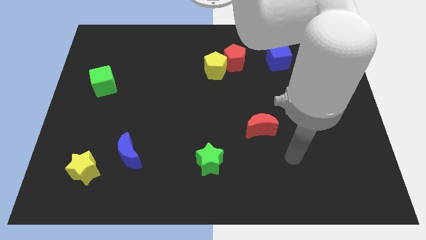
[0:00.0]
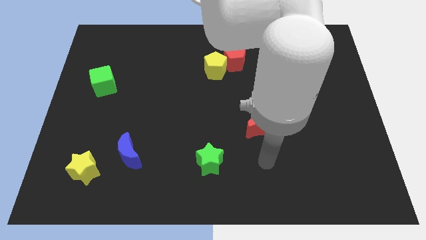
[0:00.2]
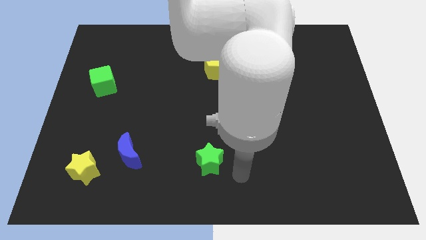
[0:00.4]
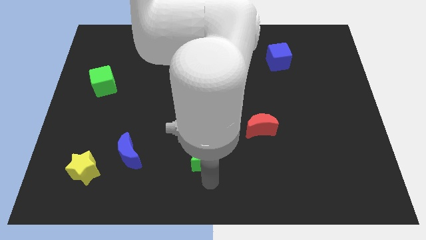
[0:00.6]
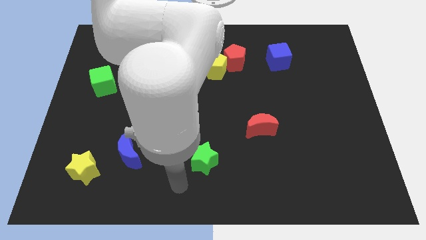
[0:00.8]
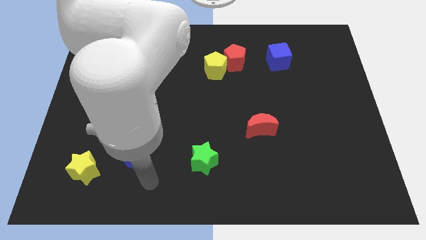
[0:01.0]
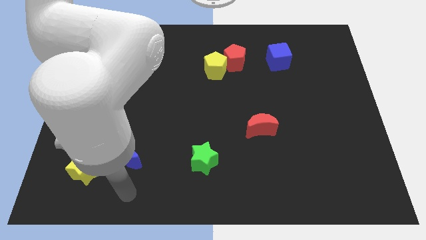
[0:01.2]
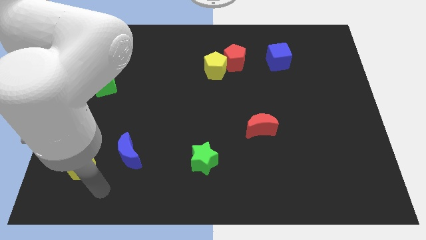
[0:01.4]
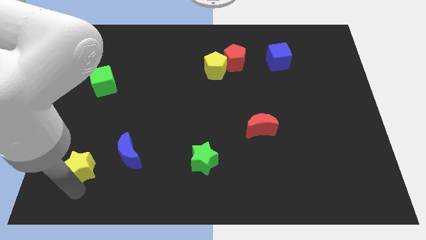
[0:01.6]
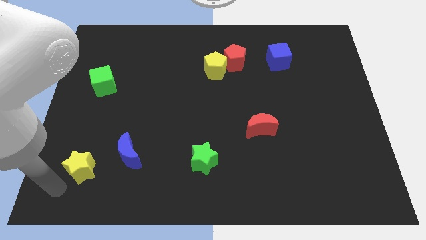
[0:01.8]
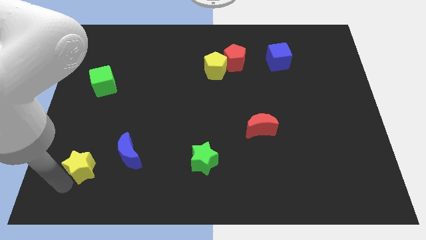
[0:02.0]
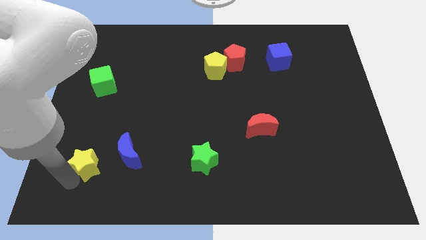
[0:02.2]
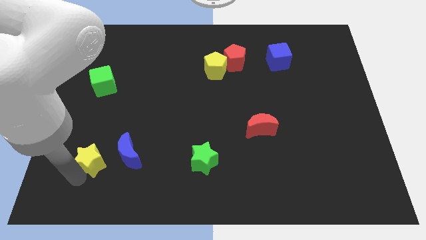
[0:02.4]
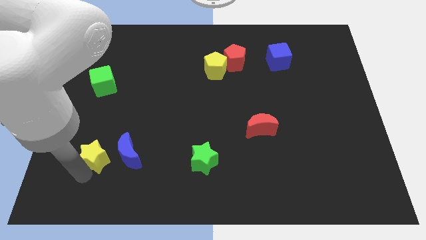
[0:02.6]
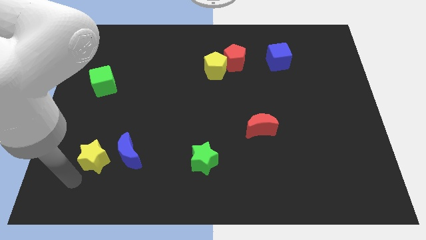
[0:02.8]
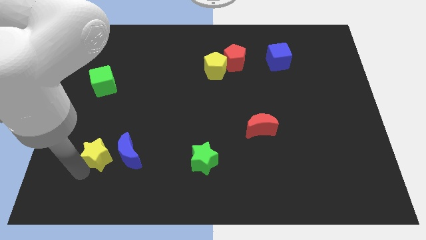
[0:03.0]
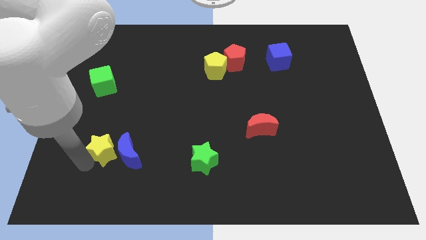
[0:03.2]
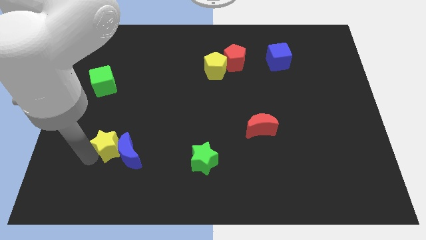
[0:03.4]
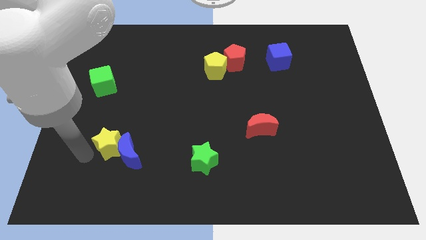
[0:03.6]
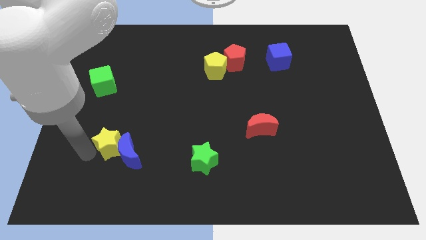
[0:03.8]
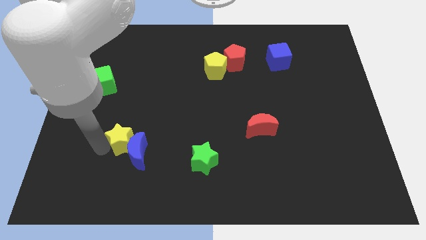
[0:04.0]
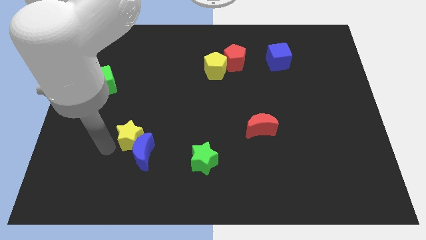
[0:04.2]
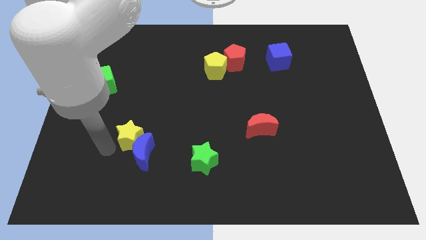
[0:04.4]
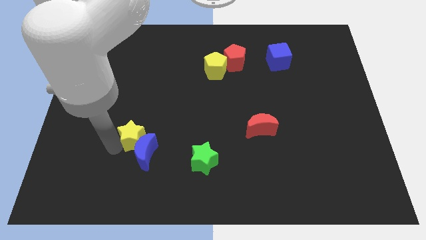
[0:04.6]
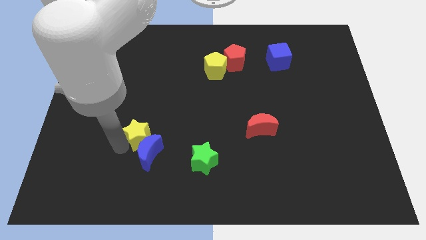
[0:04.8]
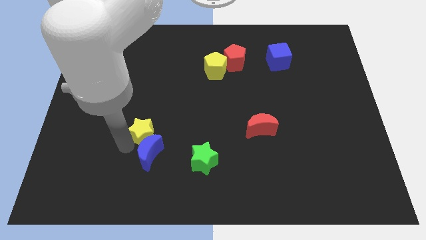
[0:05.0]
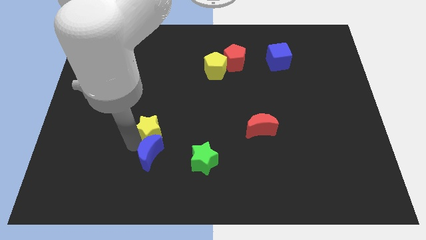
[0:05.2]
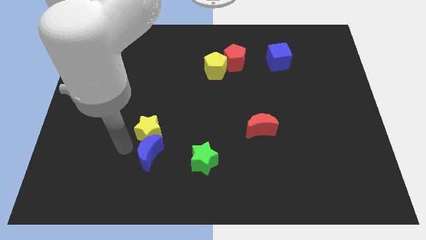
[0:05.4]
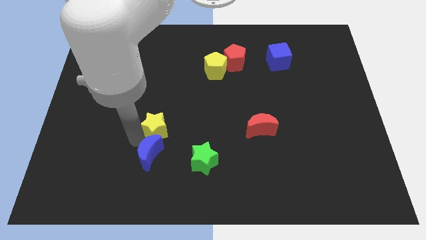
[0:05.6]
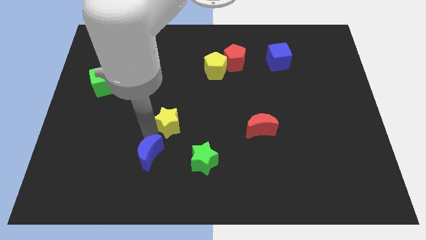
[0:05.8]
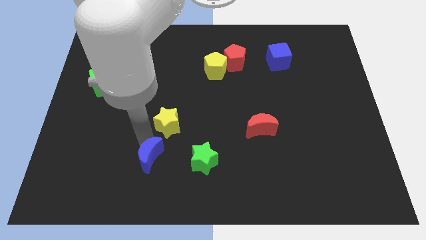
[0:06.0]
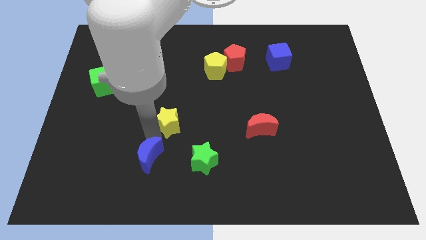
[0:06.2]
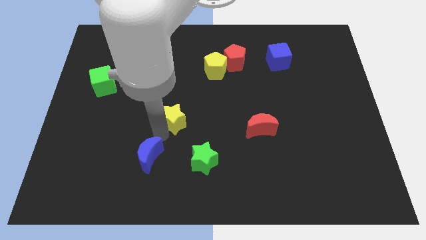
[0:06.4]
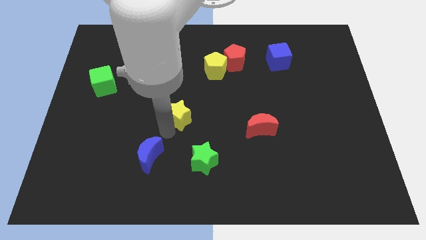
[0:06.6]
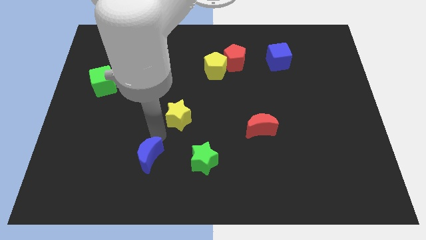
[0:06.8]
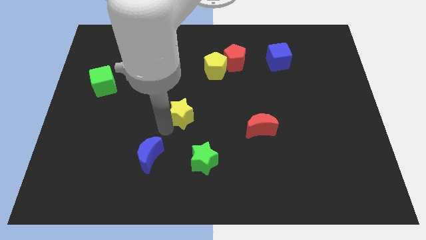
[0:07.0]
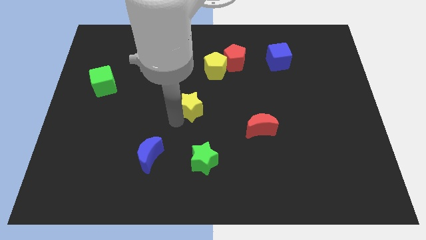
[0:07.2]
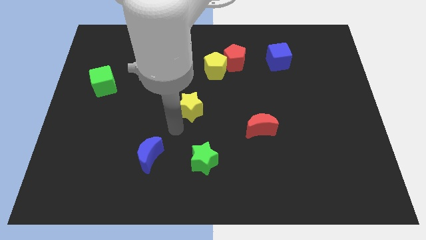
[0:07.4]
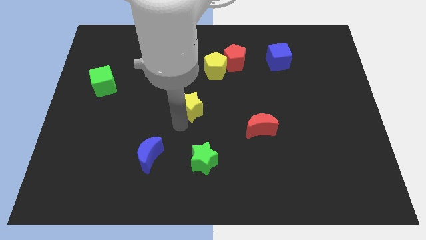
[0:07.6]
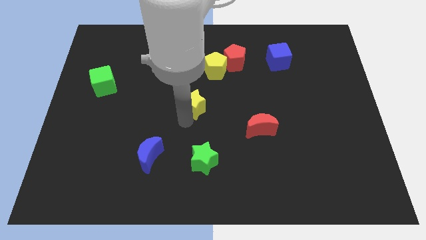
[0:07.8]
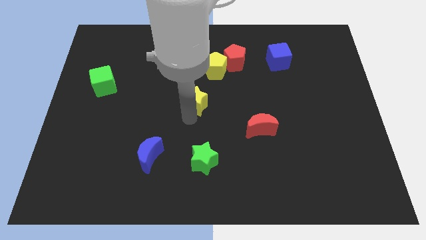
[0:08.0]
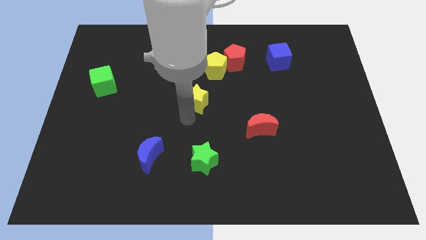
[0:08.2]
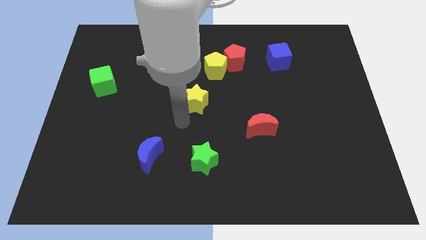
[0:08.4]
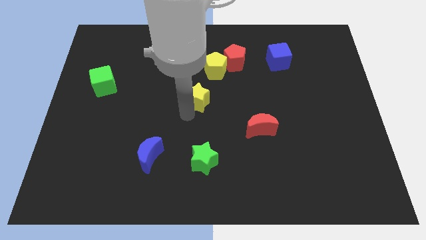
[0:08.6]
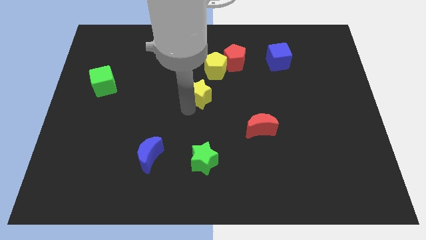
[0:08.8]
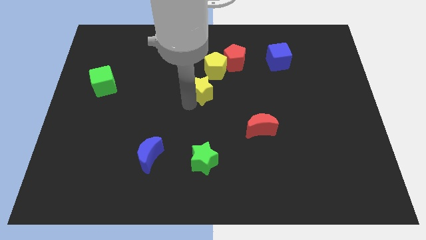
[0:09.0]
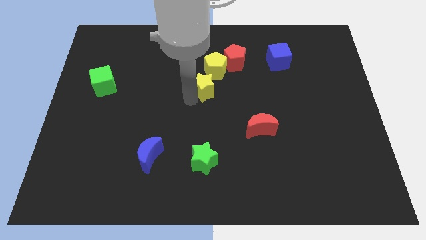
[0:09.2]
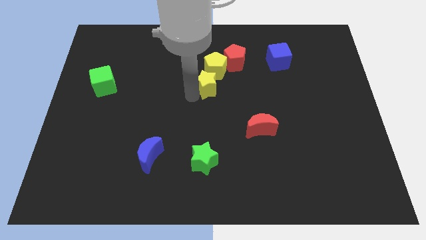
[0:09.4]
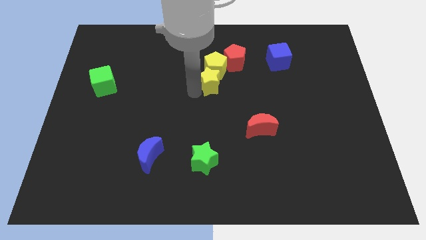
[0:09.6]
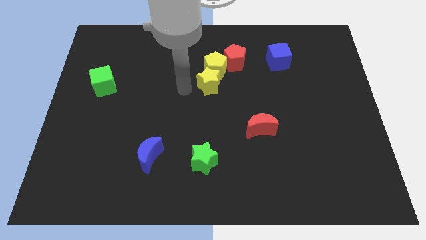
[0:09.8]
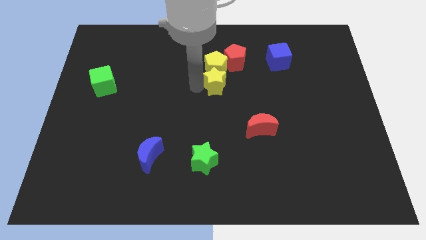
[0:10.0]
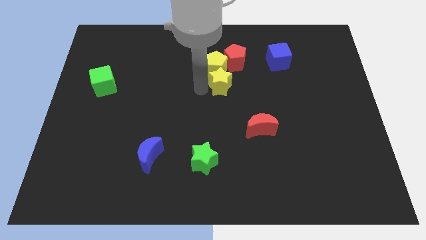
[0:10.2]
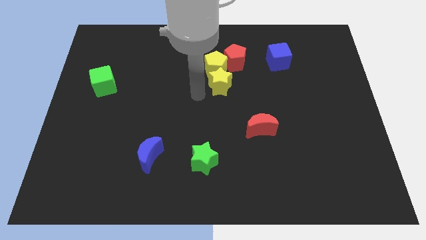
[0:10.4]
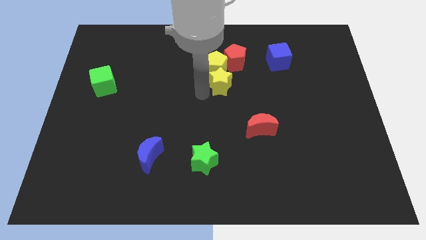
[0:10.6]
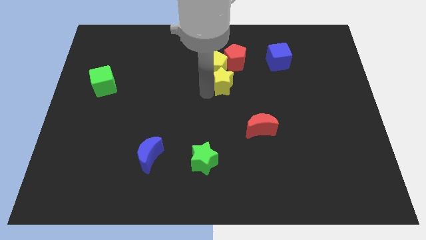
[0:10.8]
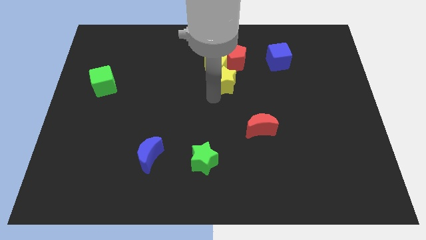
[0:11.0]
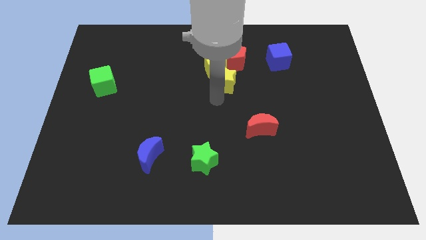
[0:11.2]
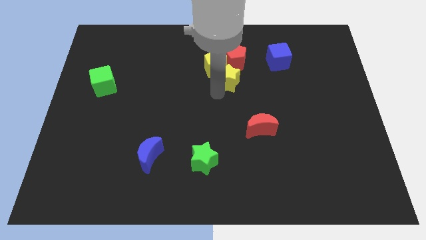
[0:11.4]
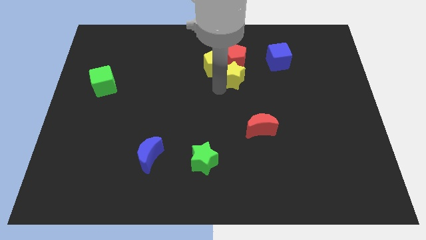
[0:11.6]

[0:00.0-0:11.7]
move the yellow star next to the red pentagon

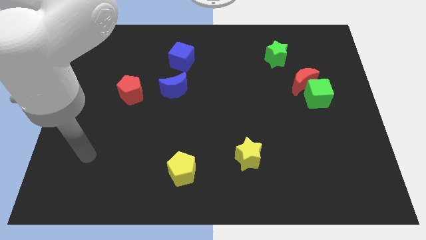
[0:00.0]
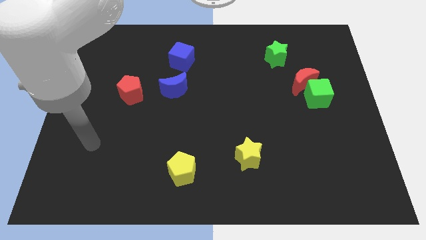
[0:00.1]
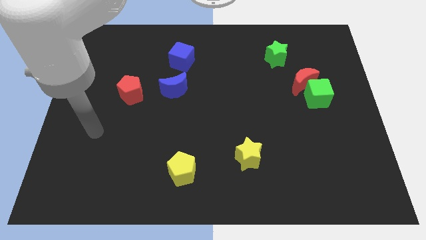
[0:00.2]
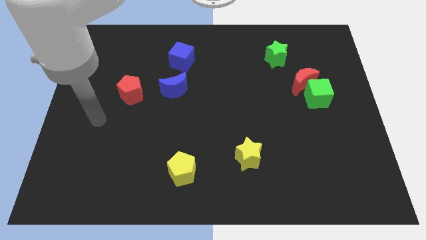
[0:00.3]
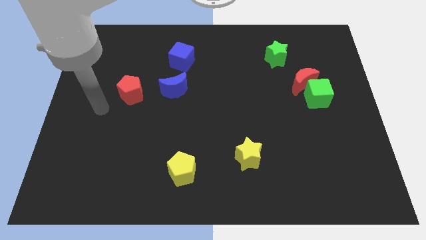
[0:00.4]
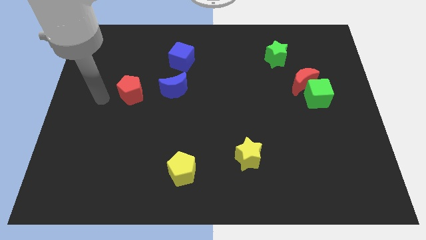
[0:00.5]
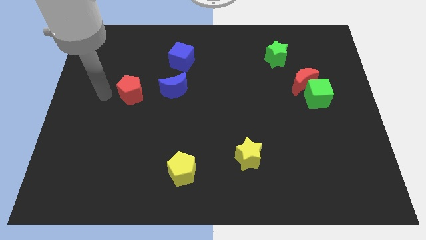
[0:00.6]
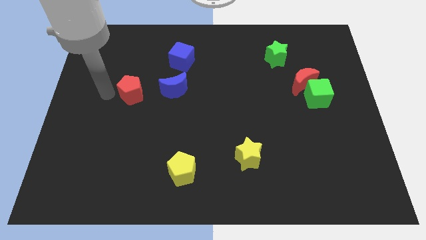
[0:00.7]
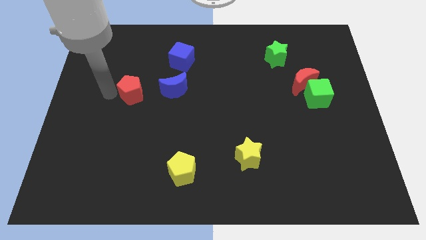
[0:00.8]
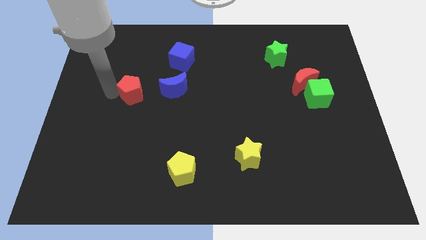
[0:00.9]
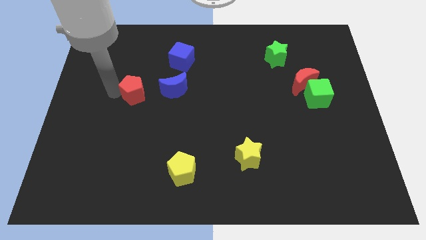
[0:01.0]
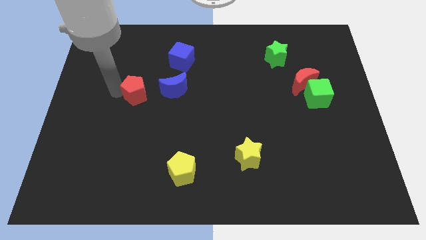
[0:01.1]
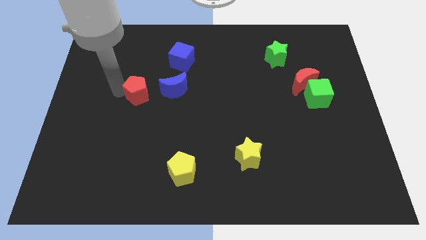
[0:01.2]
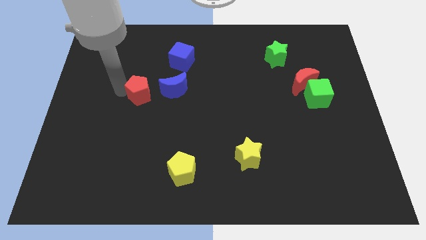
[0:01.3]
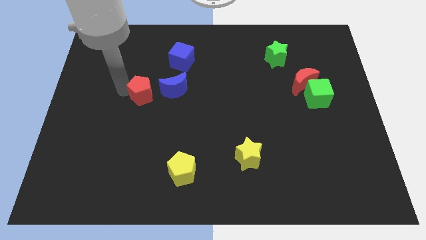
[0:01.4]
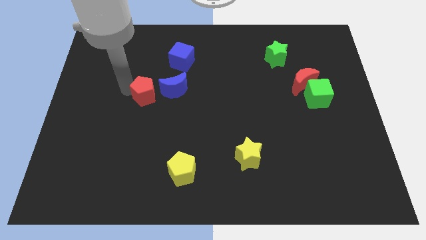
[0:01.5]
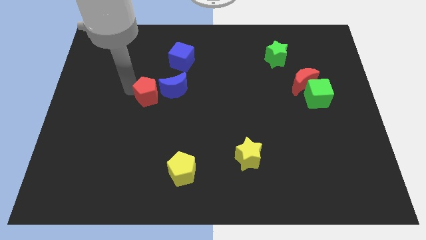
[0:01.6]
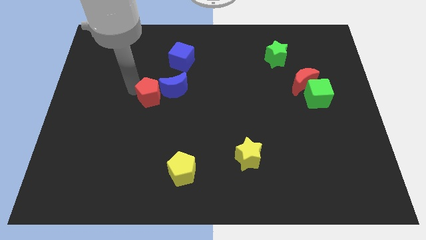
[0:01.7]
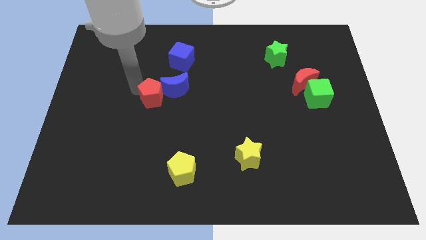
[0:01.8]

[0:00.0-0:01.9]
put the red pentagon close to the blue moon

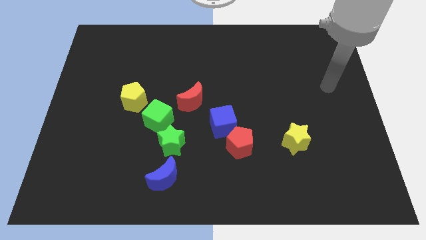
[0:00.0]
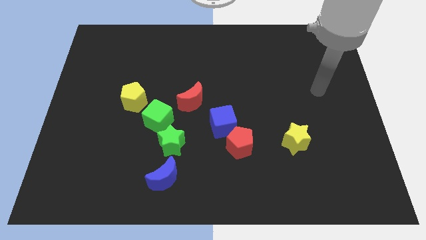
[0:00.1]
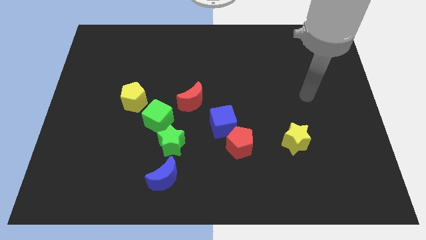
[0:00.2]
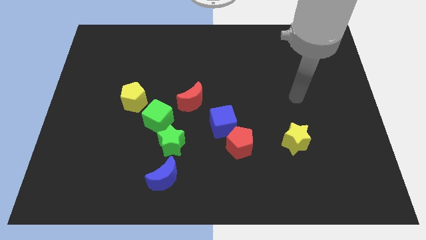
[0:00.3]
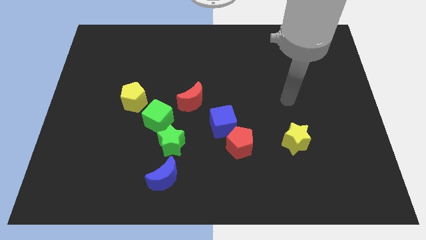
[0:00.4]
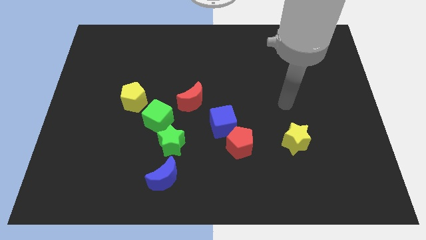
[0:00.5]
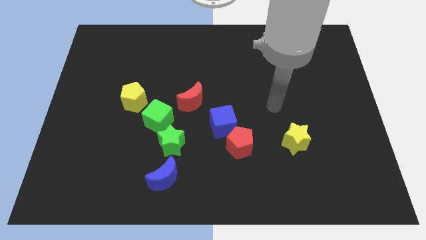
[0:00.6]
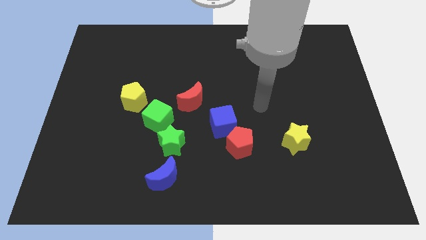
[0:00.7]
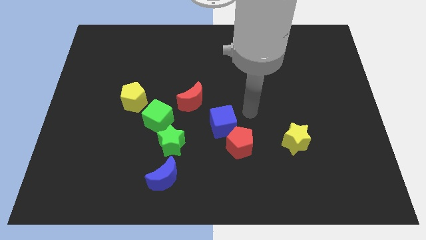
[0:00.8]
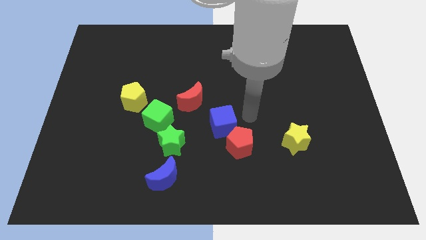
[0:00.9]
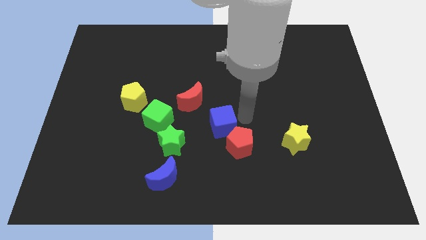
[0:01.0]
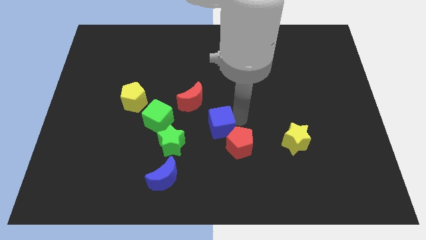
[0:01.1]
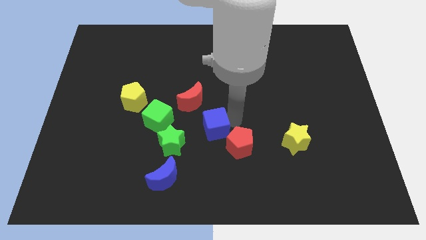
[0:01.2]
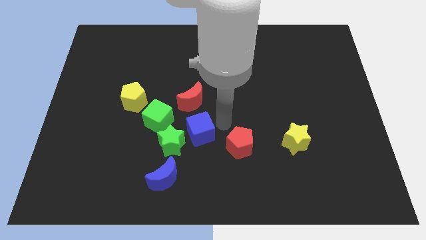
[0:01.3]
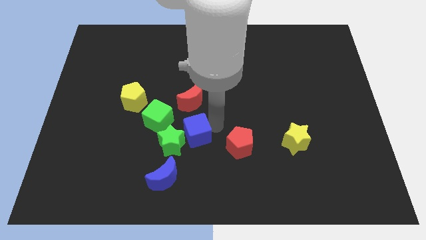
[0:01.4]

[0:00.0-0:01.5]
push the blue cube next to the green star
